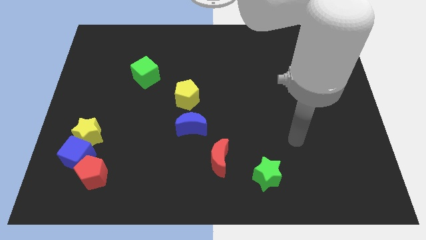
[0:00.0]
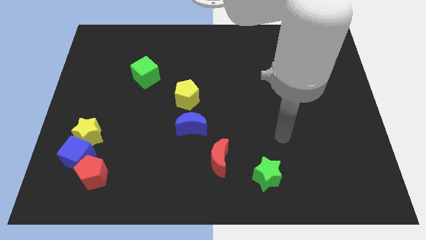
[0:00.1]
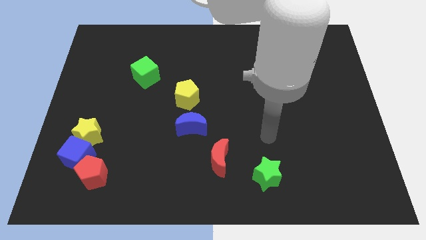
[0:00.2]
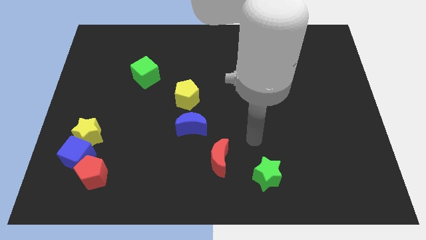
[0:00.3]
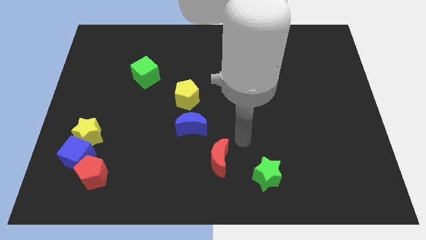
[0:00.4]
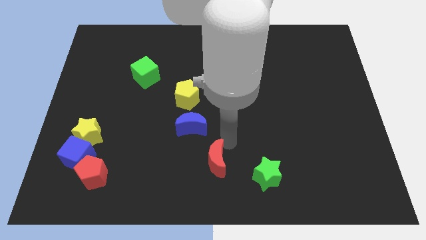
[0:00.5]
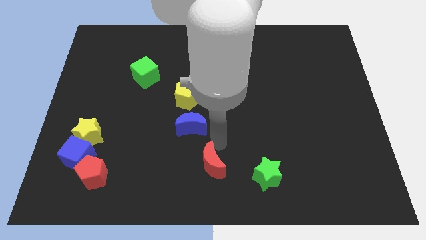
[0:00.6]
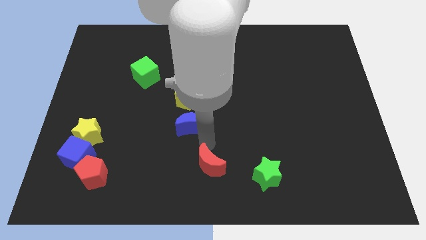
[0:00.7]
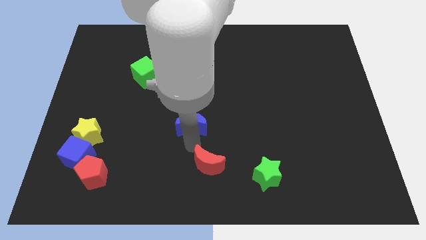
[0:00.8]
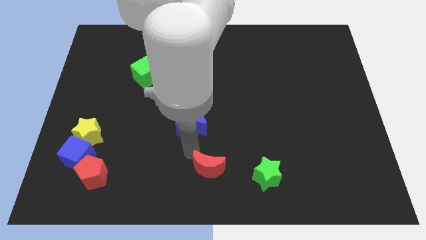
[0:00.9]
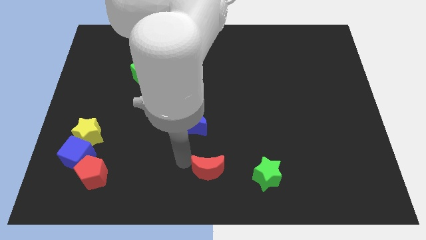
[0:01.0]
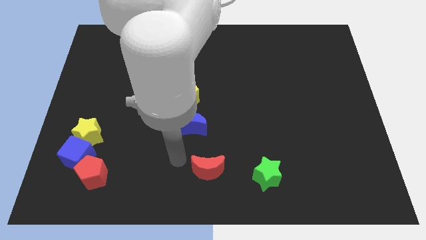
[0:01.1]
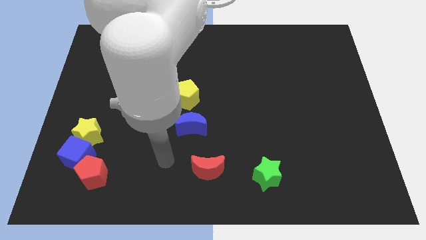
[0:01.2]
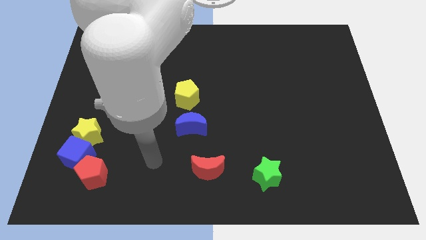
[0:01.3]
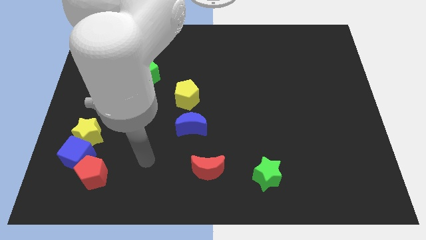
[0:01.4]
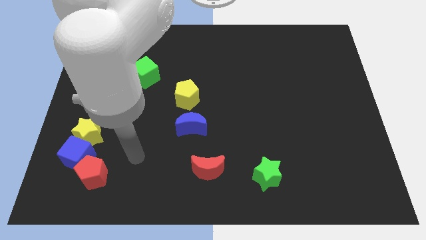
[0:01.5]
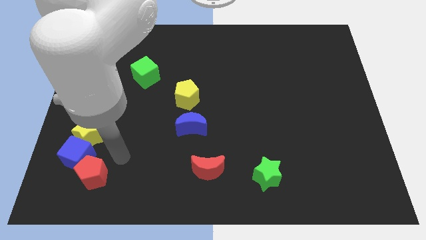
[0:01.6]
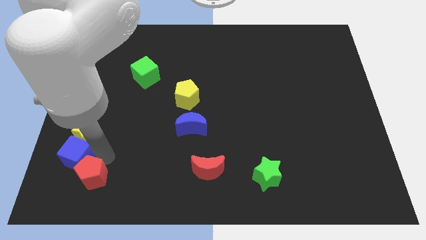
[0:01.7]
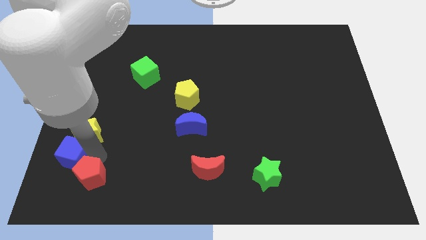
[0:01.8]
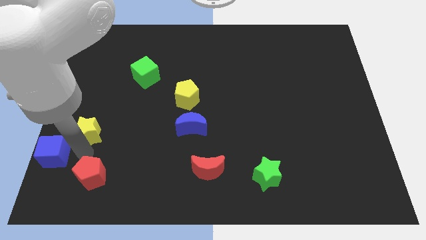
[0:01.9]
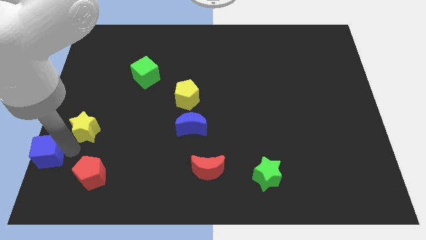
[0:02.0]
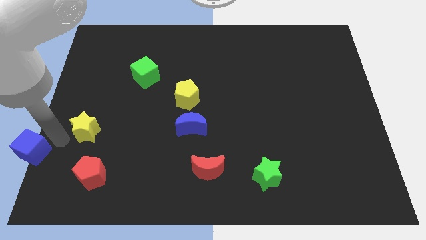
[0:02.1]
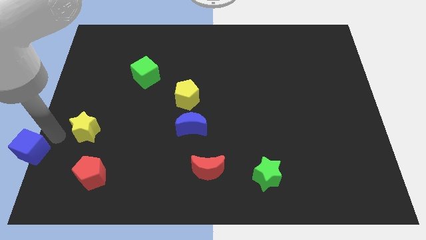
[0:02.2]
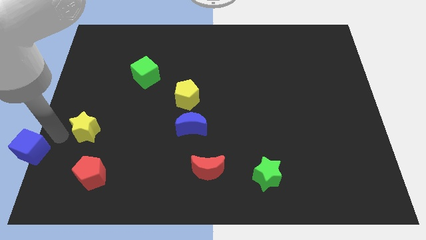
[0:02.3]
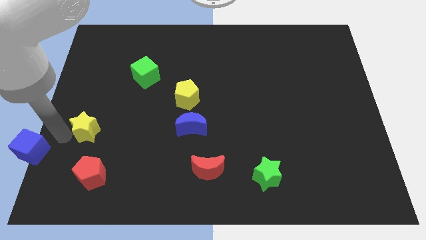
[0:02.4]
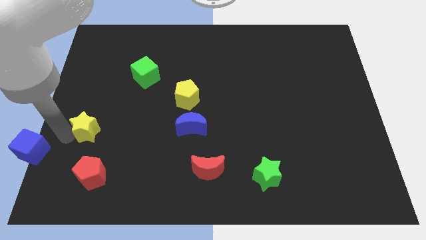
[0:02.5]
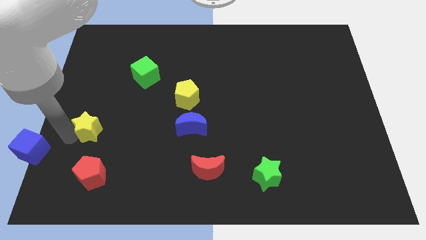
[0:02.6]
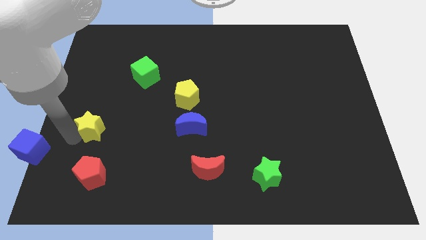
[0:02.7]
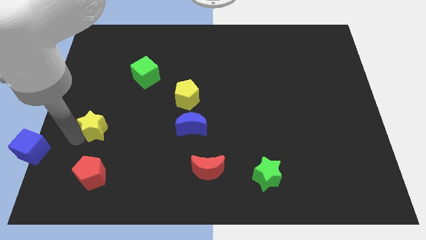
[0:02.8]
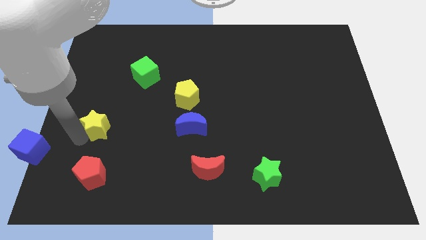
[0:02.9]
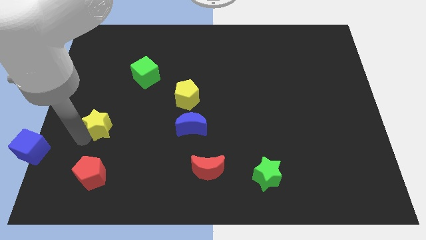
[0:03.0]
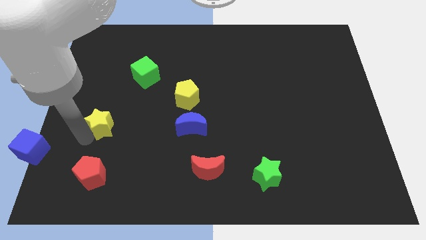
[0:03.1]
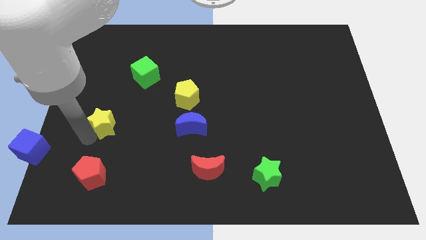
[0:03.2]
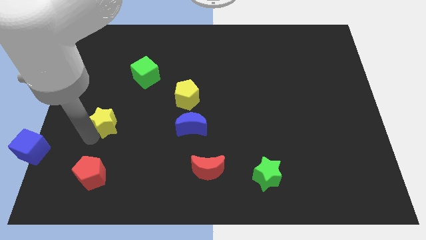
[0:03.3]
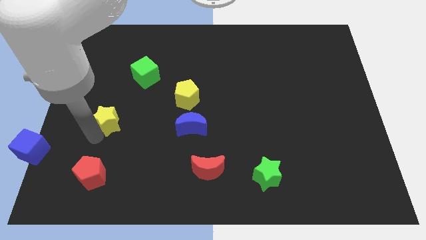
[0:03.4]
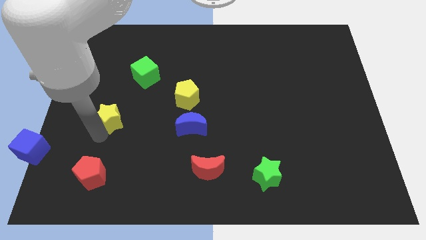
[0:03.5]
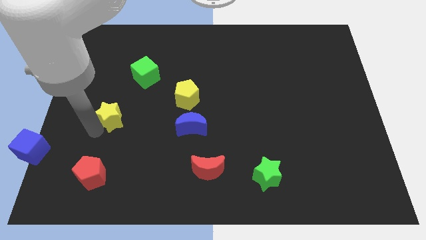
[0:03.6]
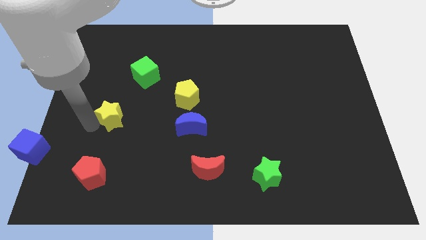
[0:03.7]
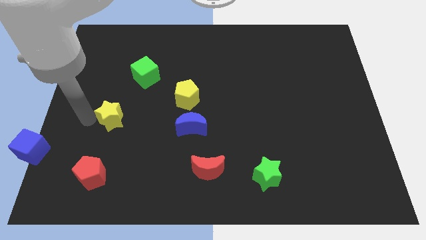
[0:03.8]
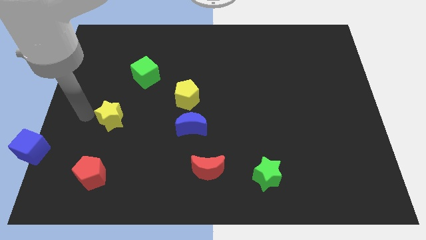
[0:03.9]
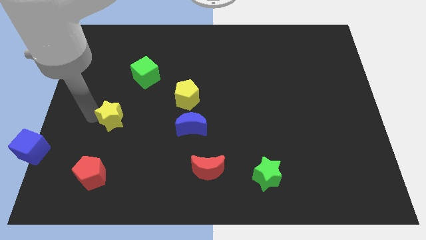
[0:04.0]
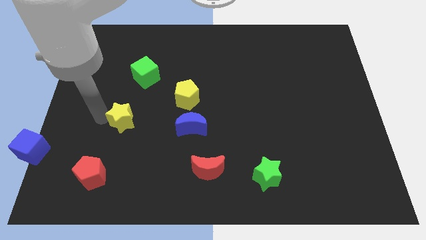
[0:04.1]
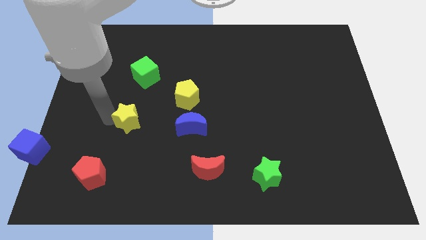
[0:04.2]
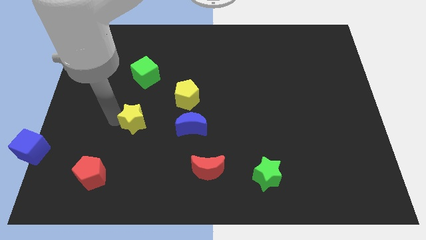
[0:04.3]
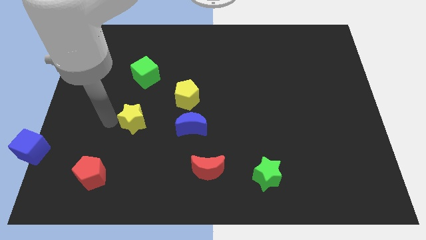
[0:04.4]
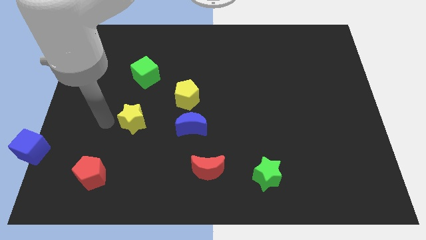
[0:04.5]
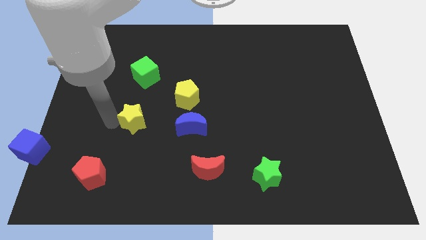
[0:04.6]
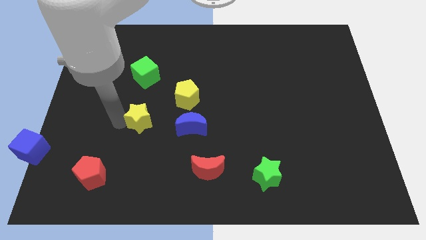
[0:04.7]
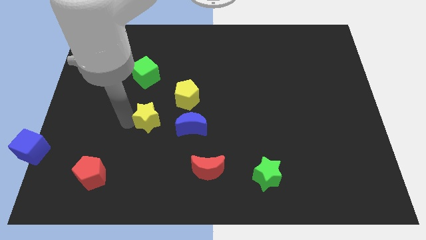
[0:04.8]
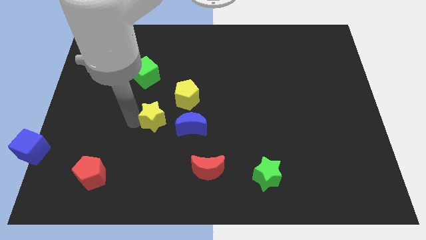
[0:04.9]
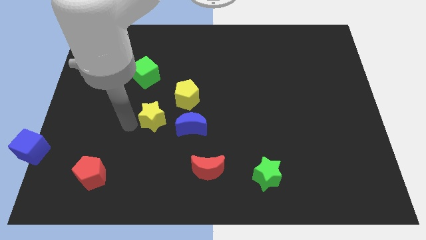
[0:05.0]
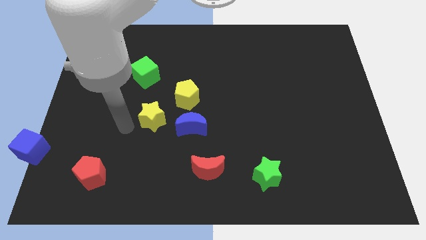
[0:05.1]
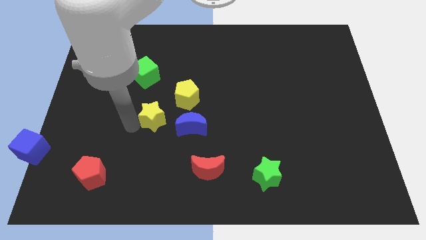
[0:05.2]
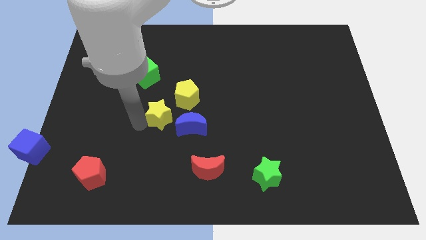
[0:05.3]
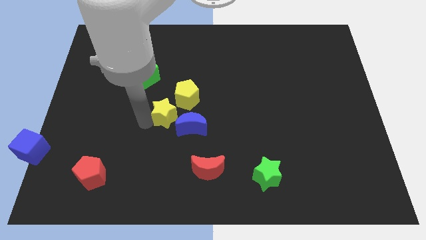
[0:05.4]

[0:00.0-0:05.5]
slide the yellow star to the middle of the board

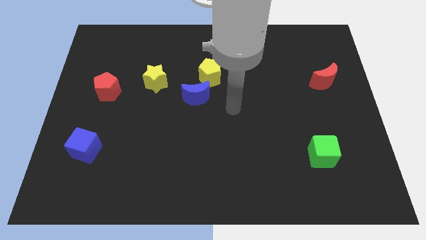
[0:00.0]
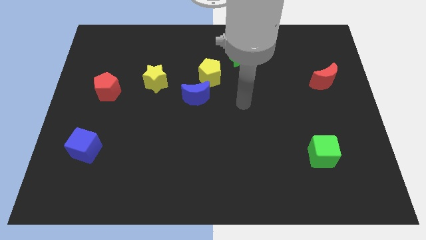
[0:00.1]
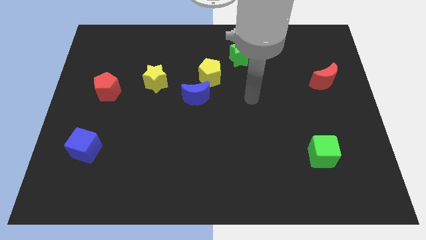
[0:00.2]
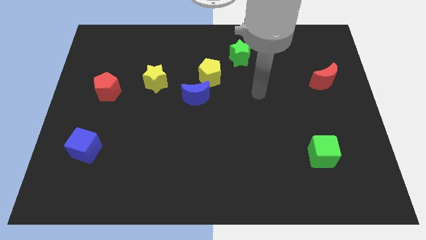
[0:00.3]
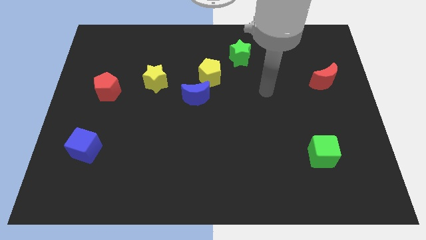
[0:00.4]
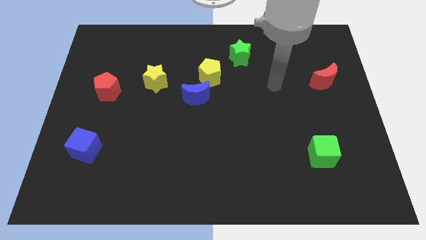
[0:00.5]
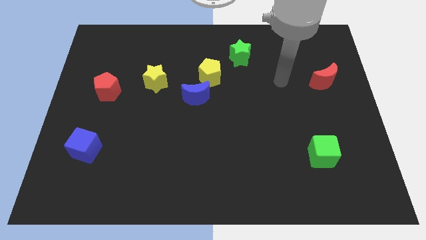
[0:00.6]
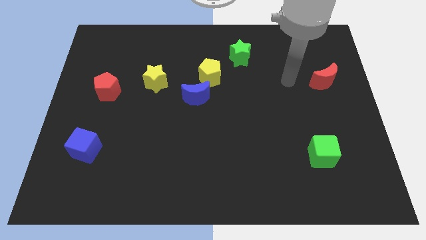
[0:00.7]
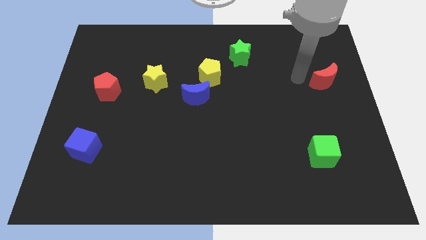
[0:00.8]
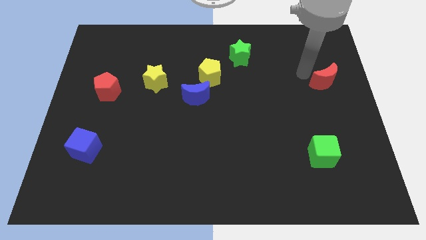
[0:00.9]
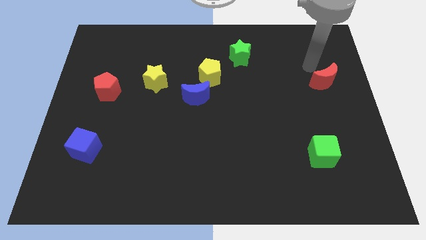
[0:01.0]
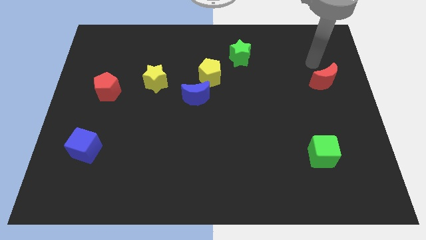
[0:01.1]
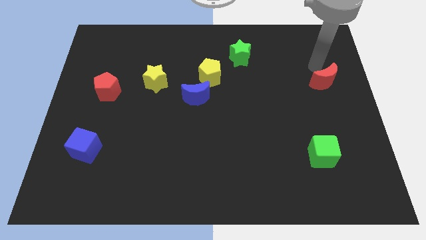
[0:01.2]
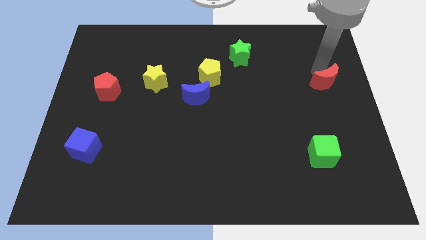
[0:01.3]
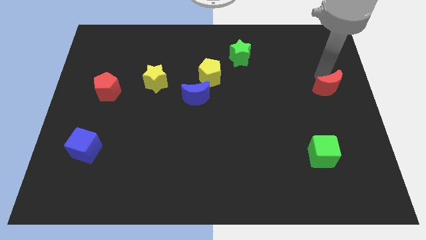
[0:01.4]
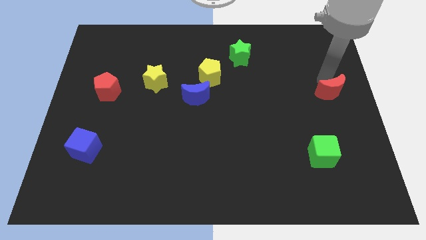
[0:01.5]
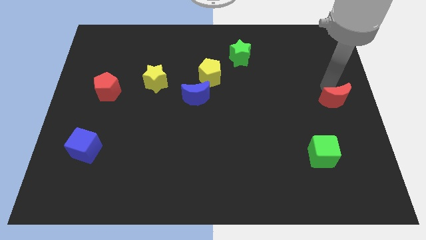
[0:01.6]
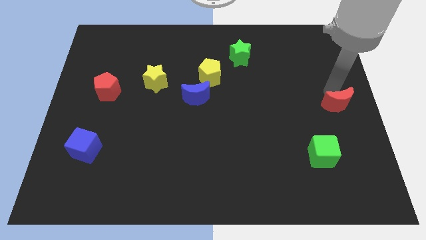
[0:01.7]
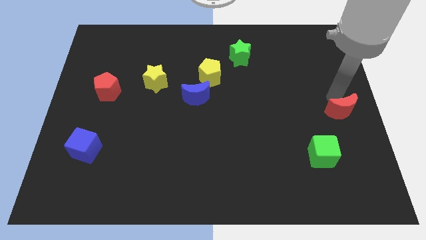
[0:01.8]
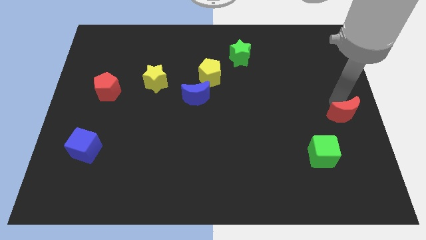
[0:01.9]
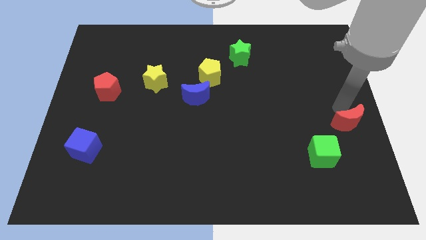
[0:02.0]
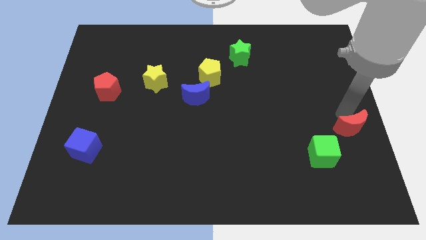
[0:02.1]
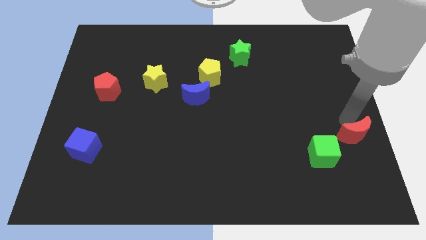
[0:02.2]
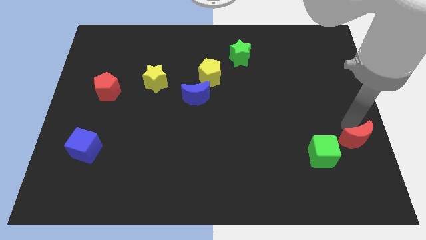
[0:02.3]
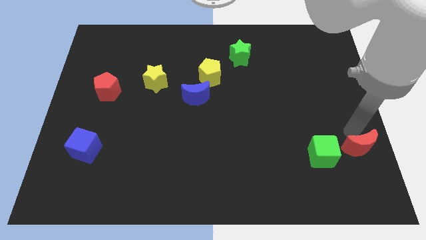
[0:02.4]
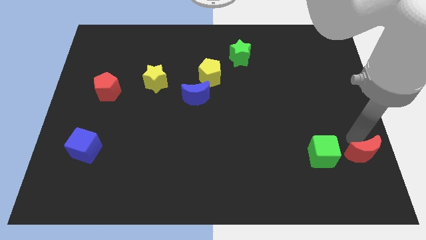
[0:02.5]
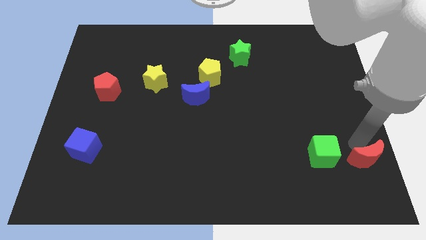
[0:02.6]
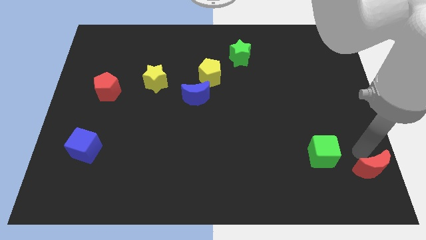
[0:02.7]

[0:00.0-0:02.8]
push the red moon to the lower right corner
